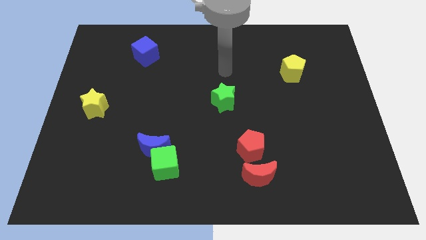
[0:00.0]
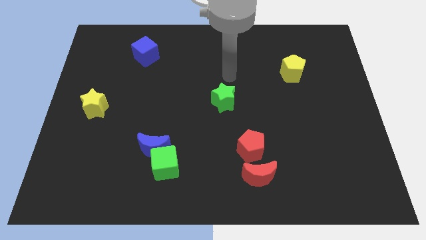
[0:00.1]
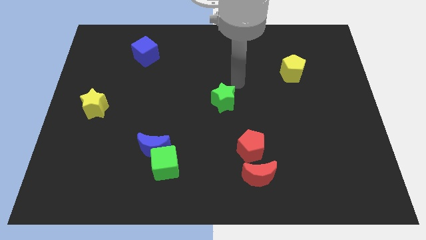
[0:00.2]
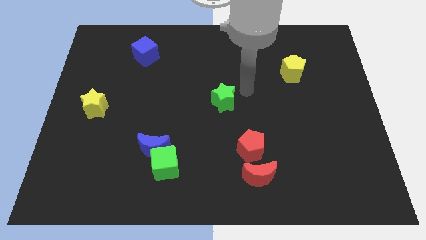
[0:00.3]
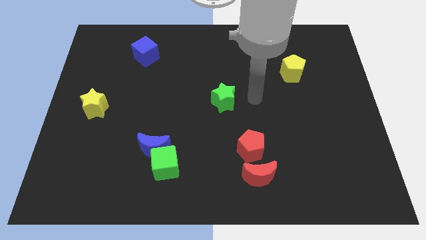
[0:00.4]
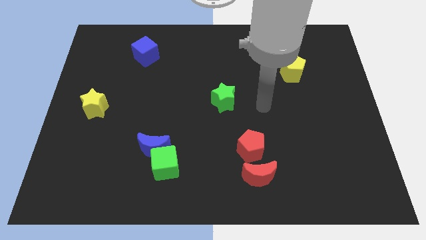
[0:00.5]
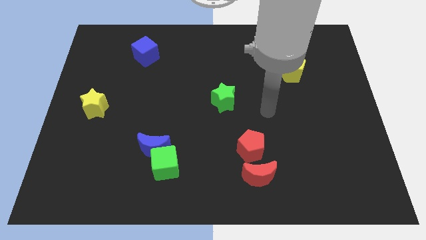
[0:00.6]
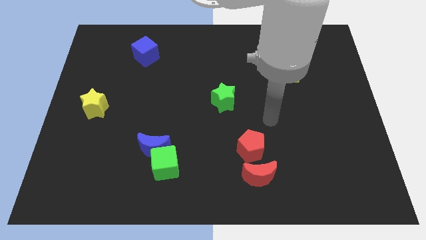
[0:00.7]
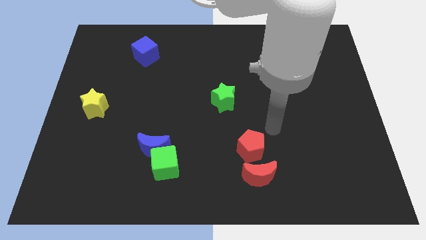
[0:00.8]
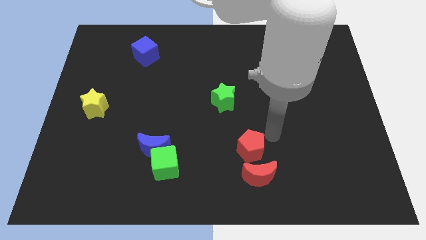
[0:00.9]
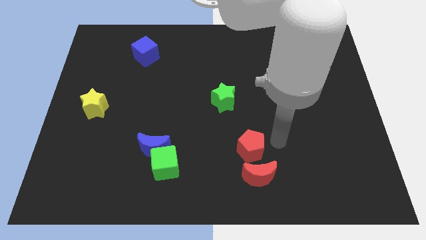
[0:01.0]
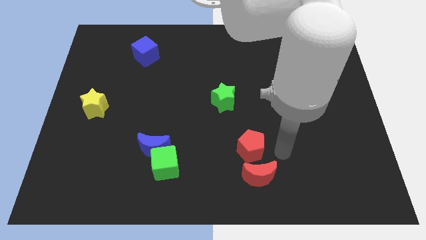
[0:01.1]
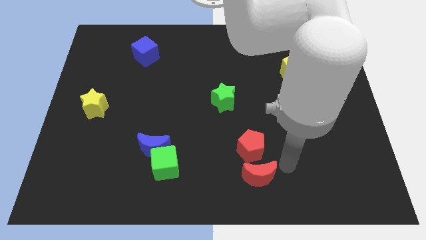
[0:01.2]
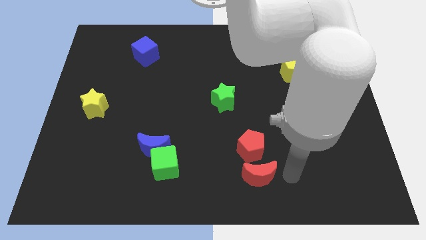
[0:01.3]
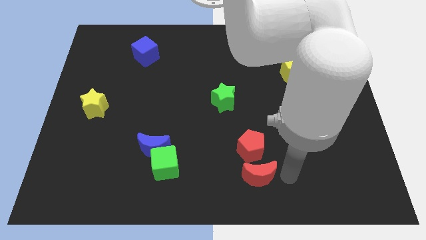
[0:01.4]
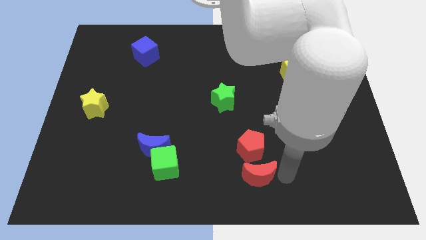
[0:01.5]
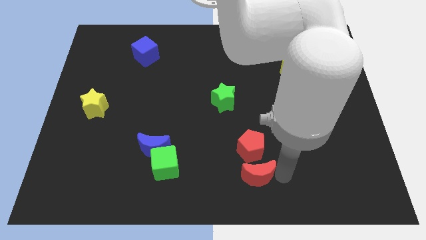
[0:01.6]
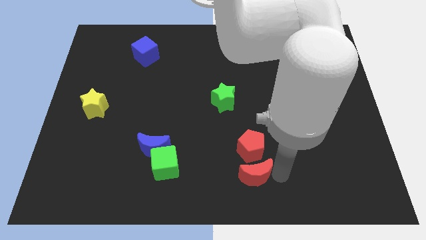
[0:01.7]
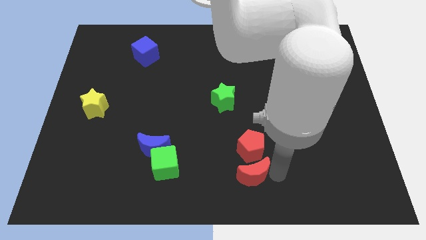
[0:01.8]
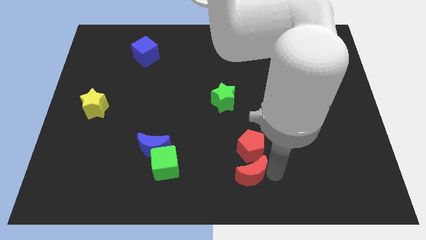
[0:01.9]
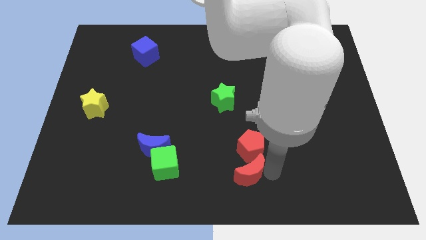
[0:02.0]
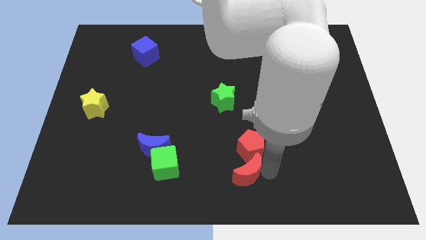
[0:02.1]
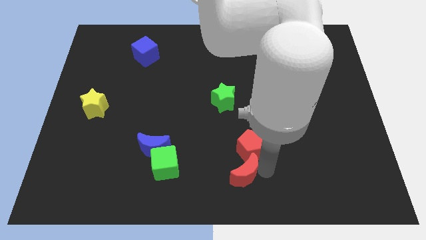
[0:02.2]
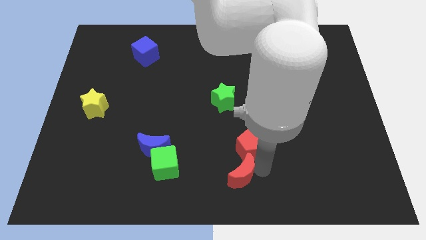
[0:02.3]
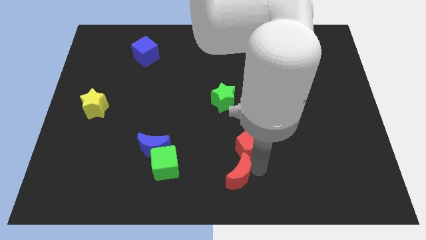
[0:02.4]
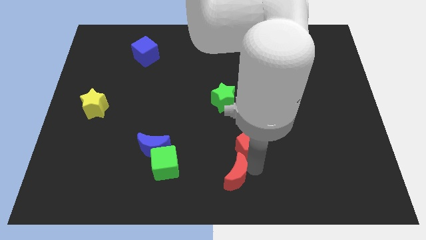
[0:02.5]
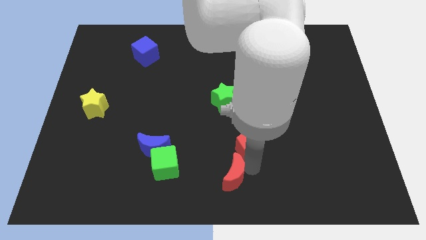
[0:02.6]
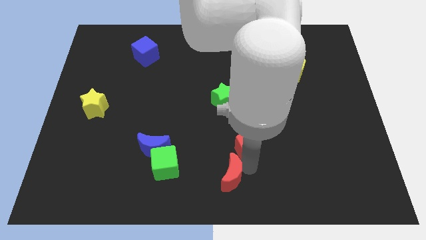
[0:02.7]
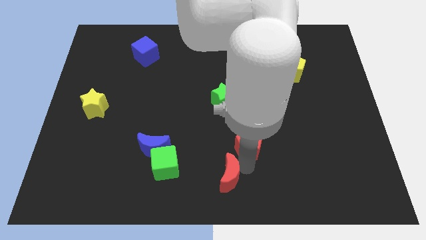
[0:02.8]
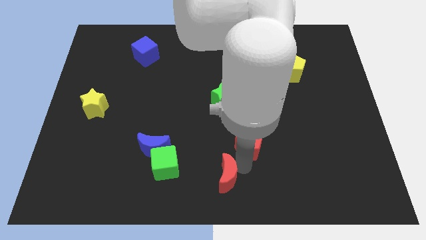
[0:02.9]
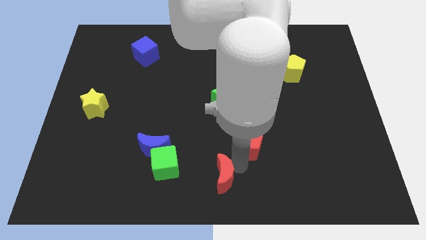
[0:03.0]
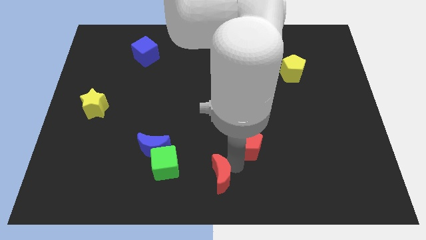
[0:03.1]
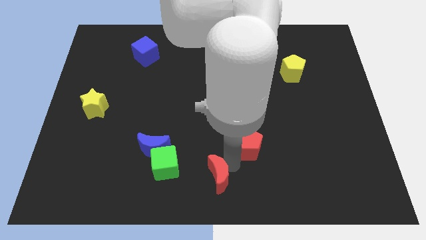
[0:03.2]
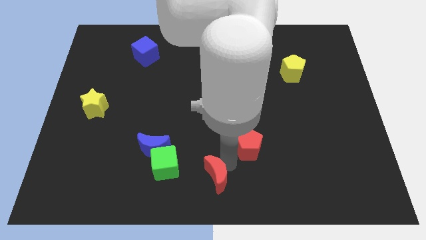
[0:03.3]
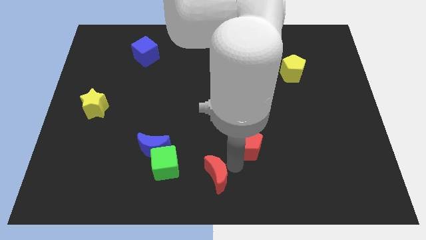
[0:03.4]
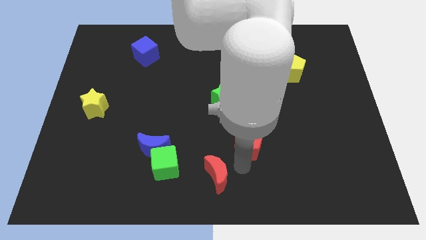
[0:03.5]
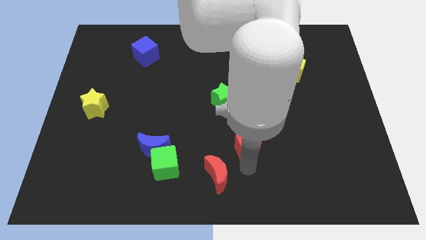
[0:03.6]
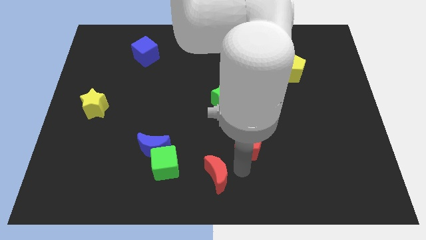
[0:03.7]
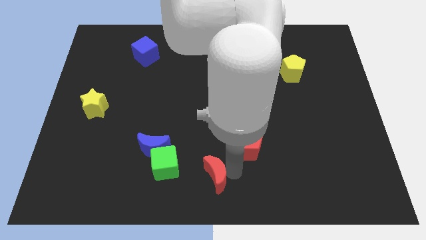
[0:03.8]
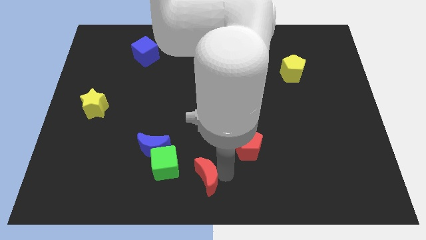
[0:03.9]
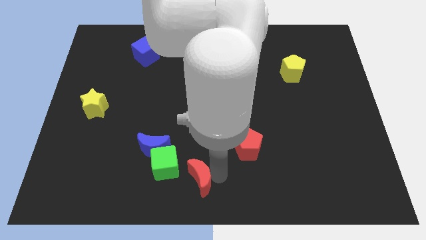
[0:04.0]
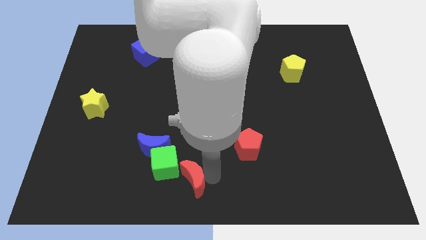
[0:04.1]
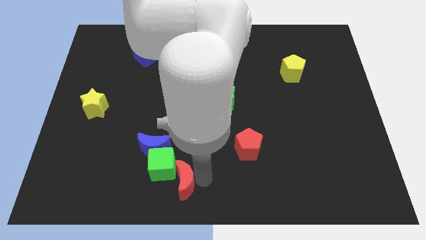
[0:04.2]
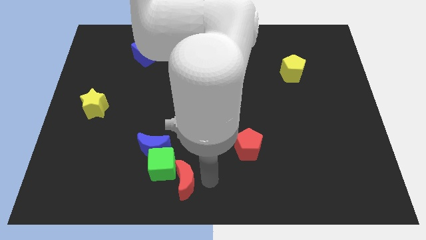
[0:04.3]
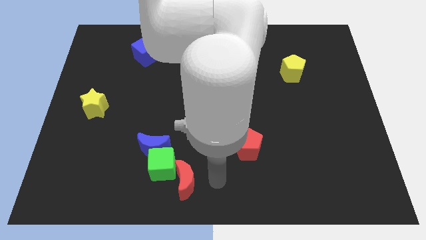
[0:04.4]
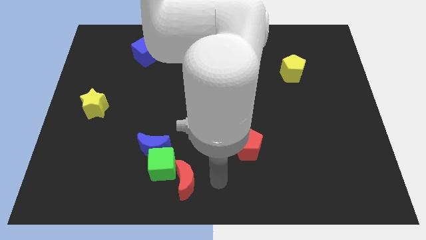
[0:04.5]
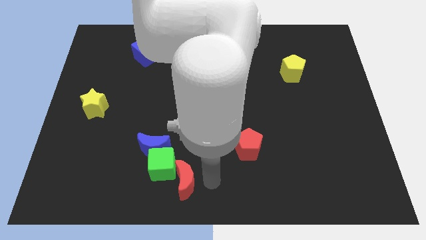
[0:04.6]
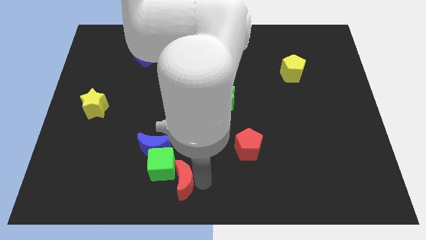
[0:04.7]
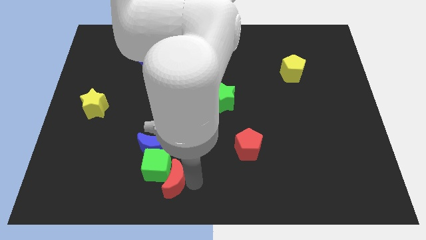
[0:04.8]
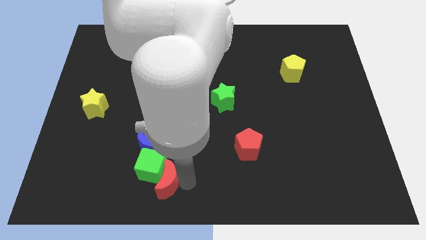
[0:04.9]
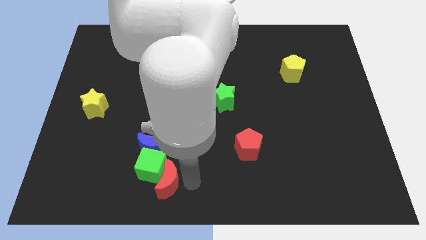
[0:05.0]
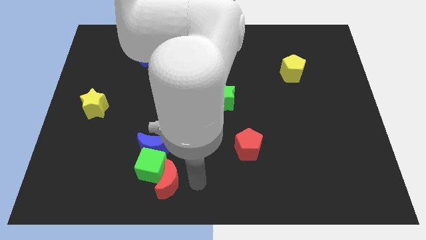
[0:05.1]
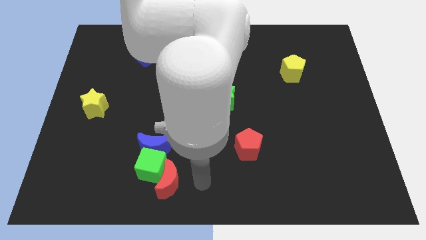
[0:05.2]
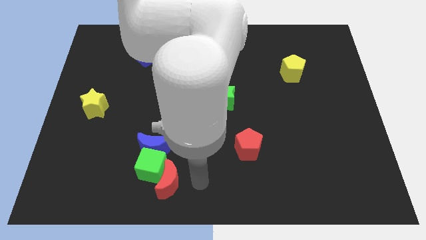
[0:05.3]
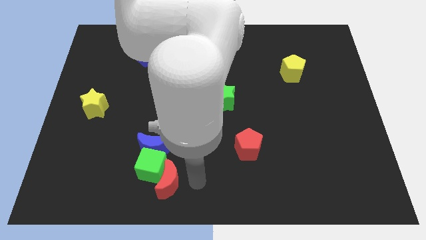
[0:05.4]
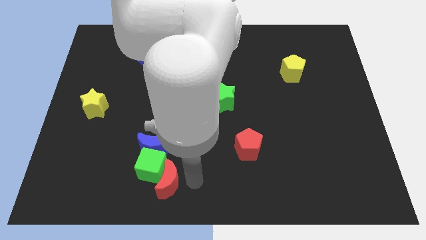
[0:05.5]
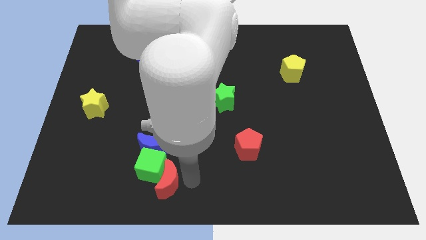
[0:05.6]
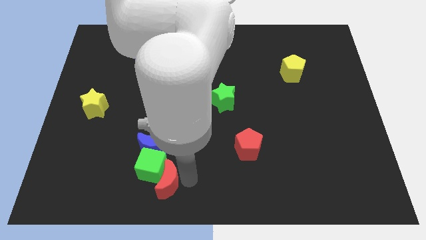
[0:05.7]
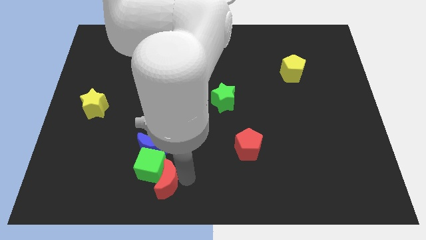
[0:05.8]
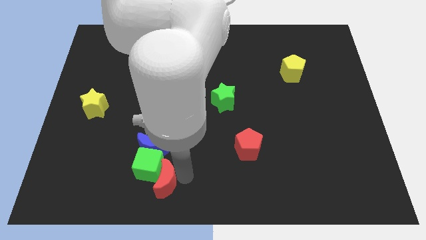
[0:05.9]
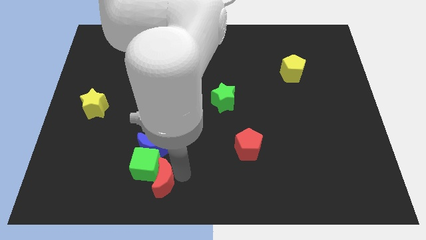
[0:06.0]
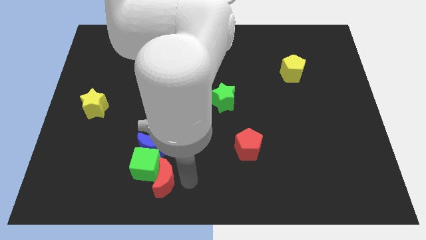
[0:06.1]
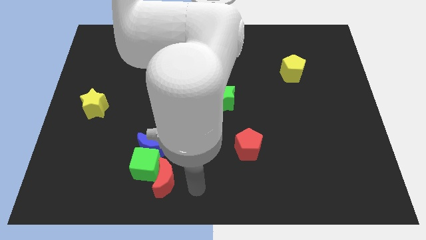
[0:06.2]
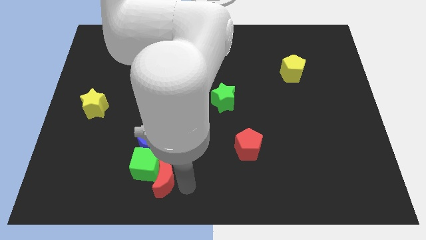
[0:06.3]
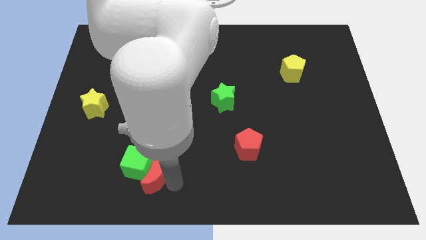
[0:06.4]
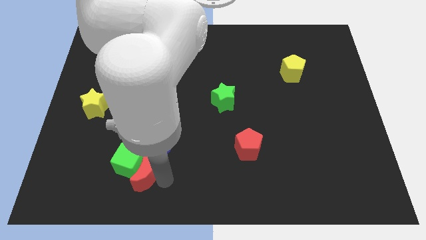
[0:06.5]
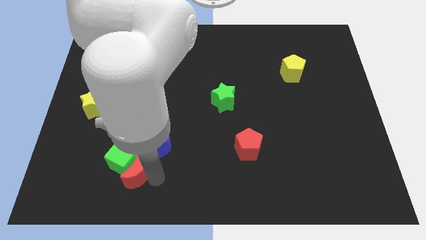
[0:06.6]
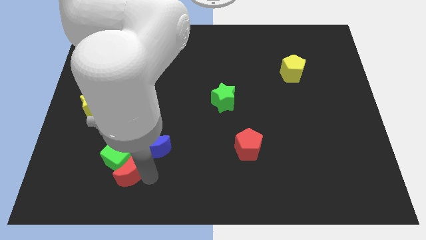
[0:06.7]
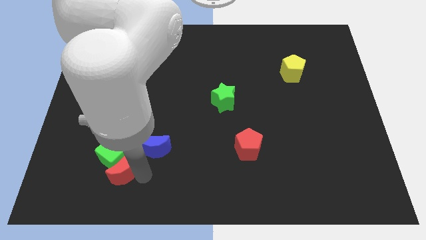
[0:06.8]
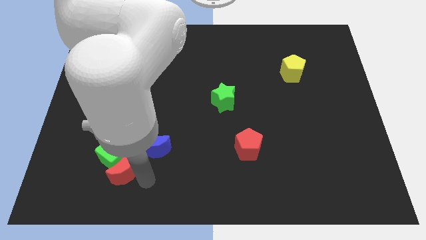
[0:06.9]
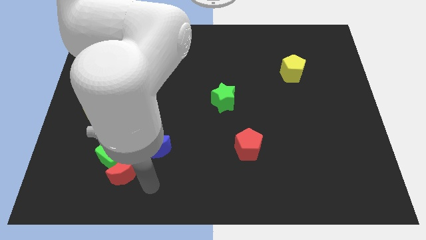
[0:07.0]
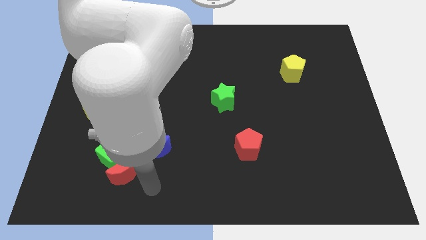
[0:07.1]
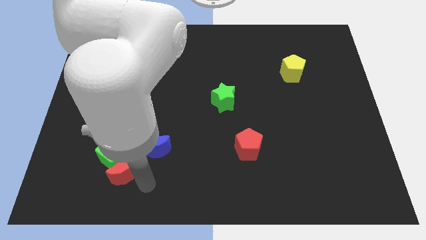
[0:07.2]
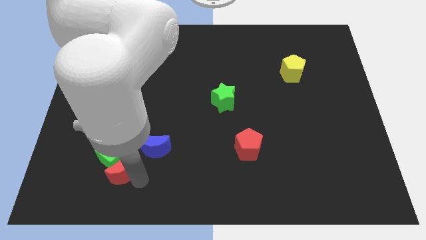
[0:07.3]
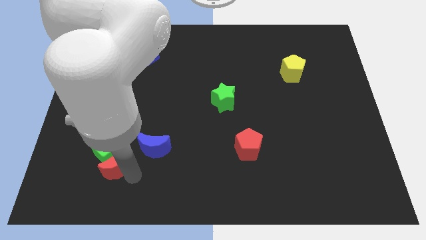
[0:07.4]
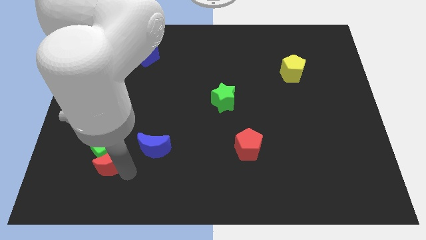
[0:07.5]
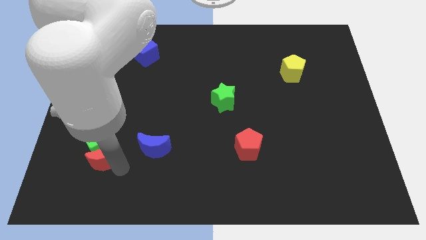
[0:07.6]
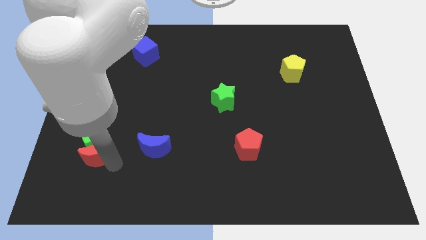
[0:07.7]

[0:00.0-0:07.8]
put the red moon to the bottom side of the yellow star
